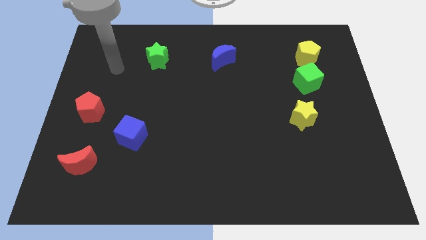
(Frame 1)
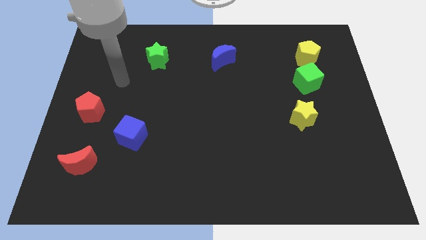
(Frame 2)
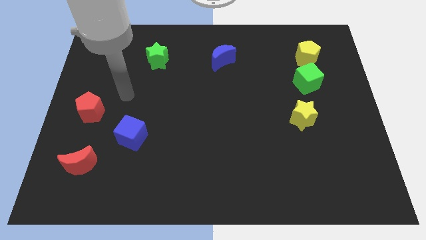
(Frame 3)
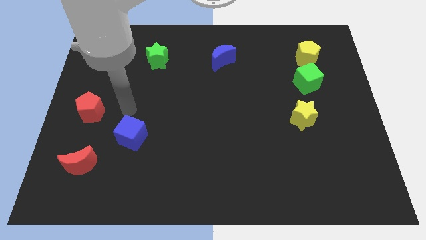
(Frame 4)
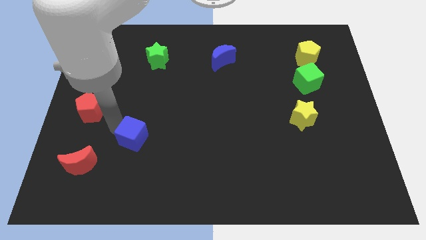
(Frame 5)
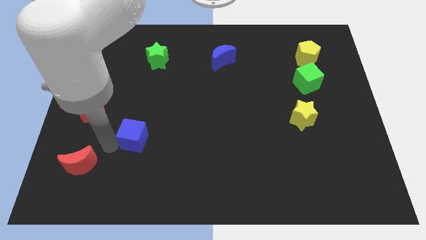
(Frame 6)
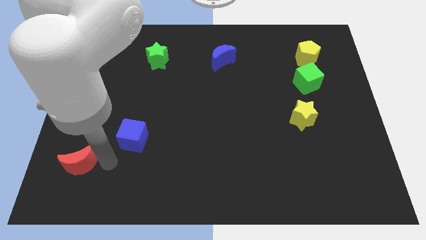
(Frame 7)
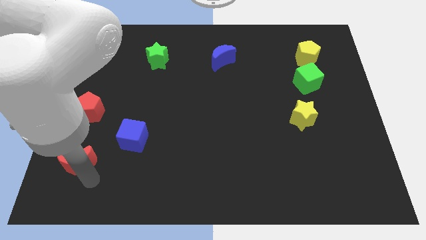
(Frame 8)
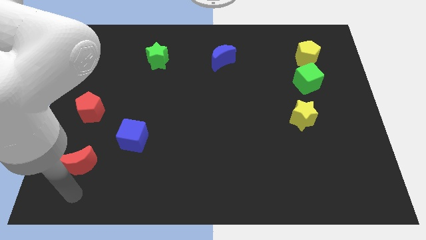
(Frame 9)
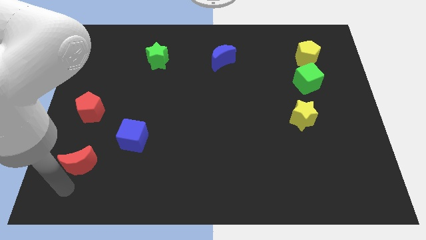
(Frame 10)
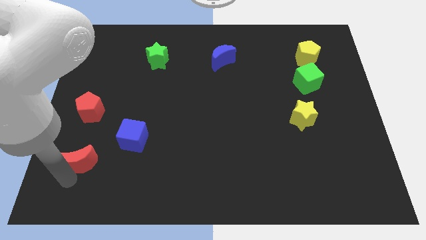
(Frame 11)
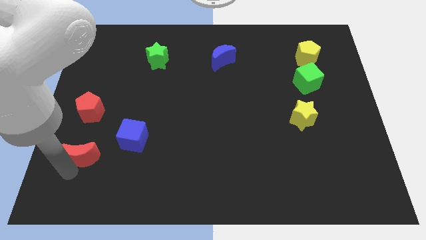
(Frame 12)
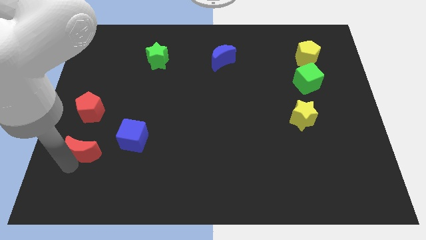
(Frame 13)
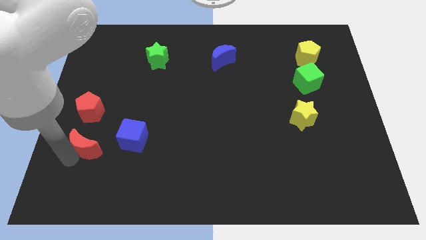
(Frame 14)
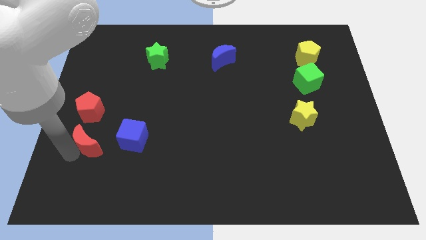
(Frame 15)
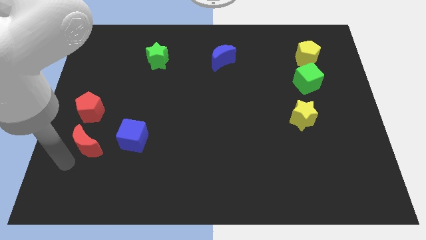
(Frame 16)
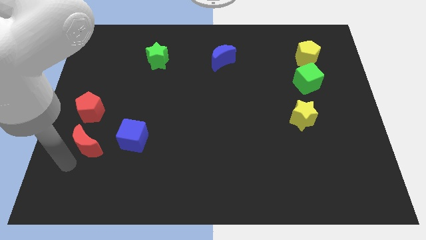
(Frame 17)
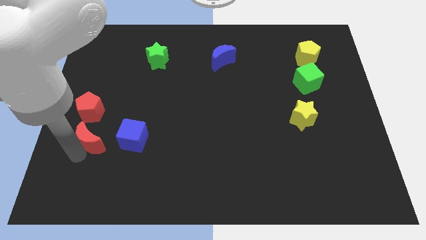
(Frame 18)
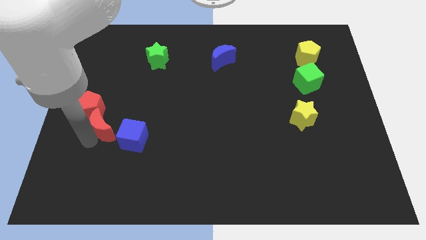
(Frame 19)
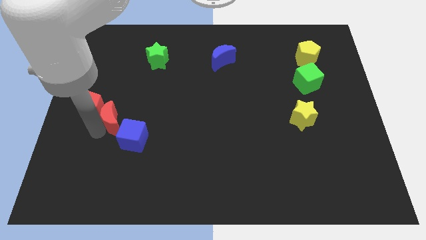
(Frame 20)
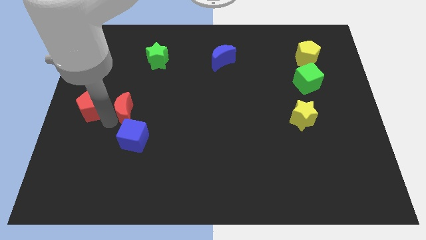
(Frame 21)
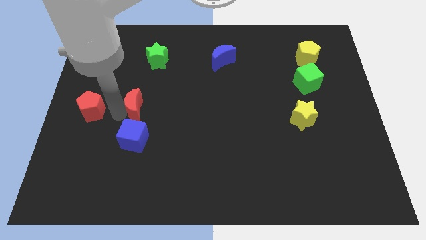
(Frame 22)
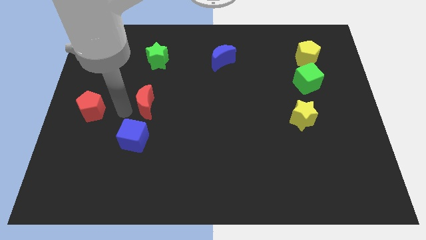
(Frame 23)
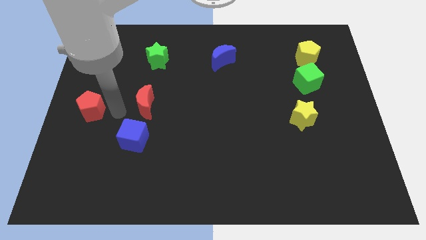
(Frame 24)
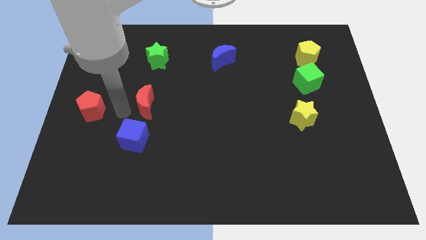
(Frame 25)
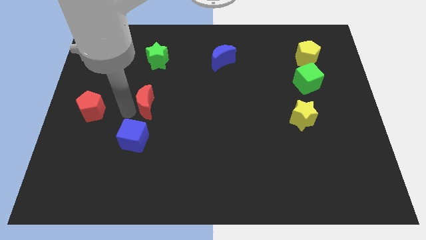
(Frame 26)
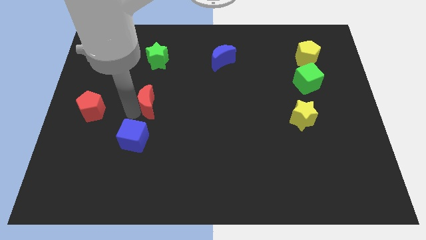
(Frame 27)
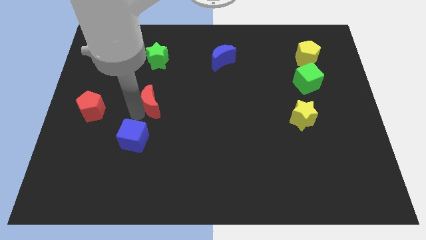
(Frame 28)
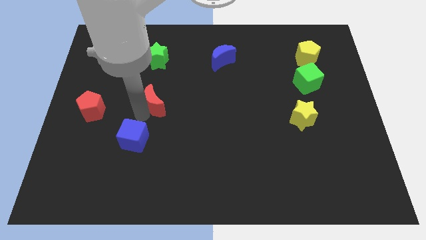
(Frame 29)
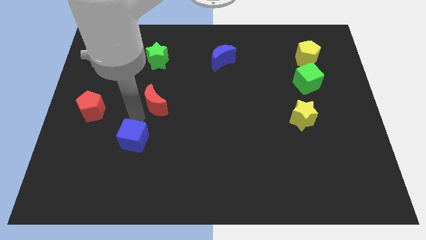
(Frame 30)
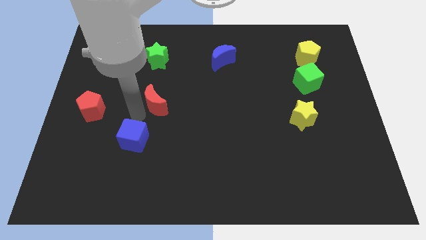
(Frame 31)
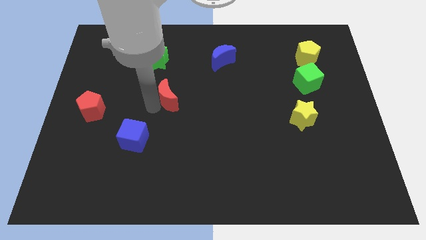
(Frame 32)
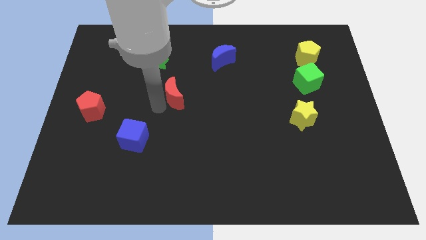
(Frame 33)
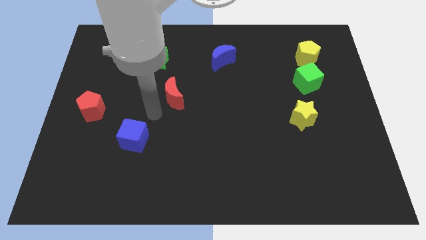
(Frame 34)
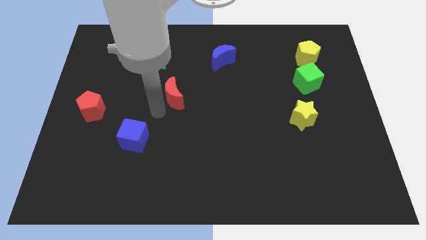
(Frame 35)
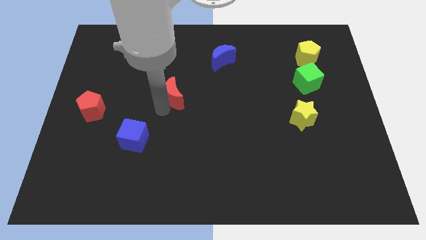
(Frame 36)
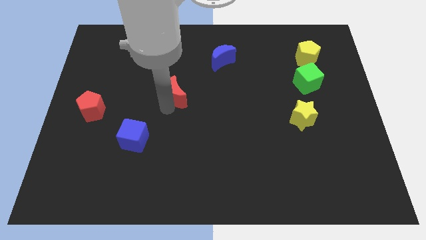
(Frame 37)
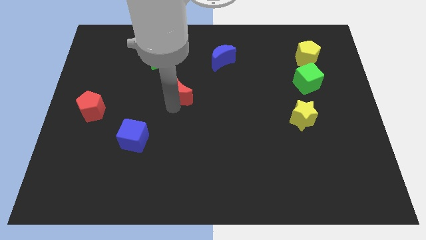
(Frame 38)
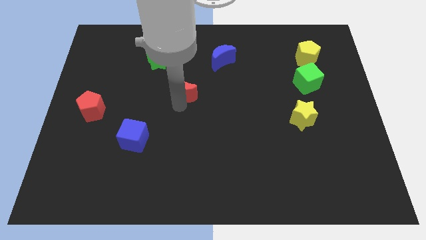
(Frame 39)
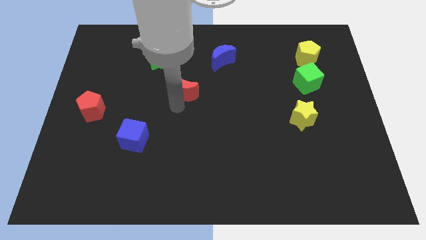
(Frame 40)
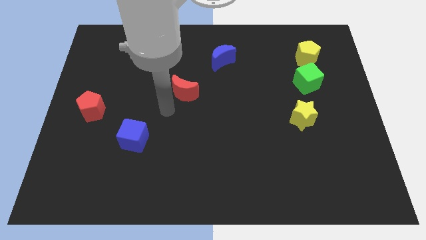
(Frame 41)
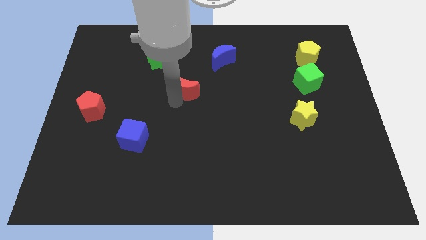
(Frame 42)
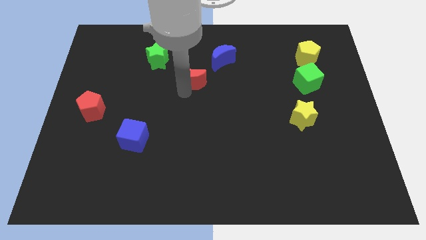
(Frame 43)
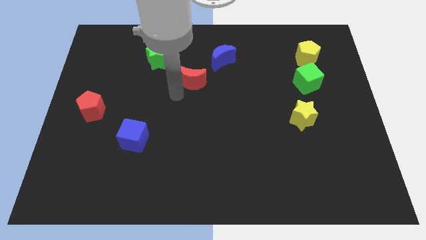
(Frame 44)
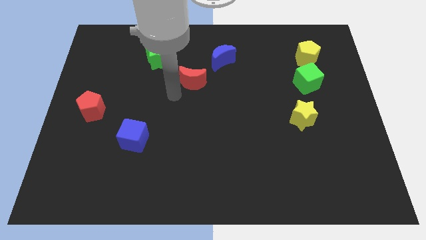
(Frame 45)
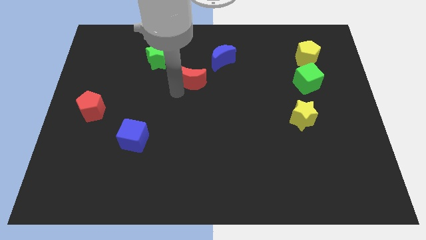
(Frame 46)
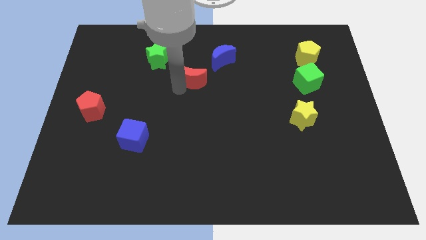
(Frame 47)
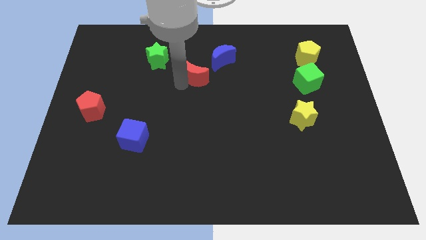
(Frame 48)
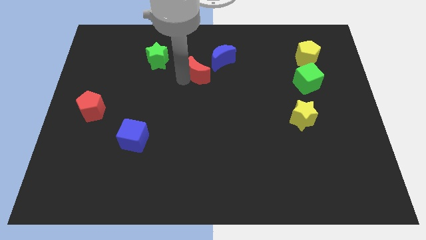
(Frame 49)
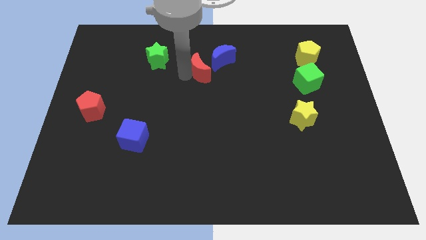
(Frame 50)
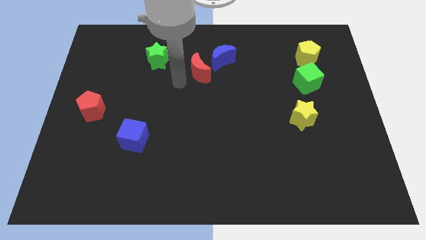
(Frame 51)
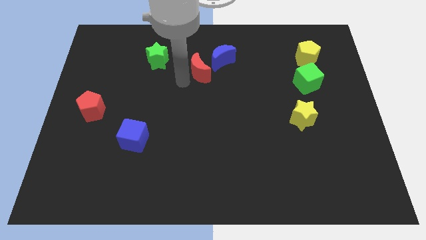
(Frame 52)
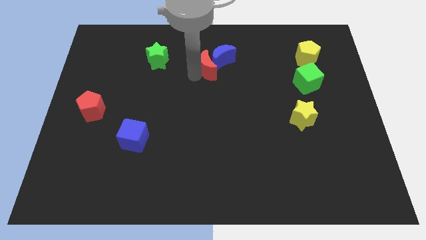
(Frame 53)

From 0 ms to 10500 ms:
put the red moon close to the blue moon

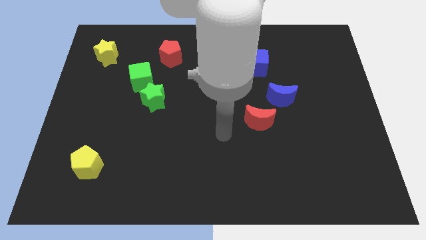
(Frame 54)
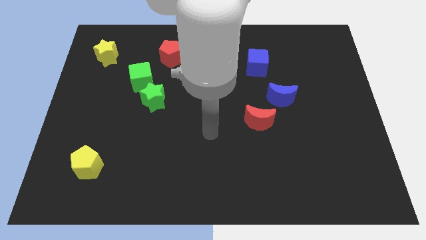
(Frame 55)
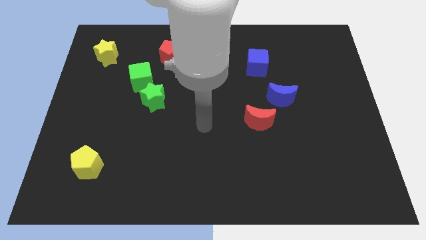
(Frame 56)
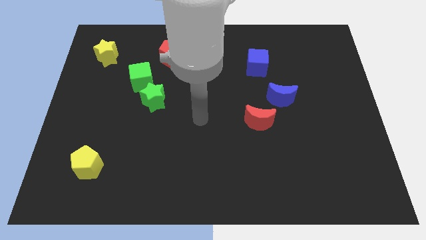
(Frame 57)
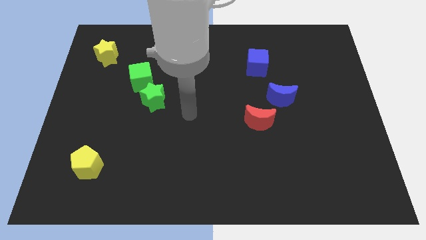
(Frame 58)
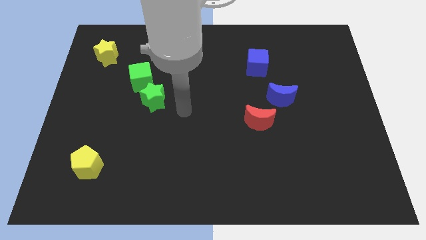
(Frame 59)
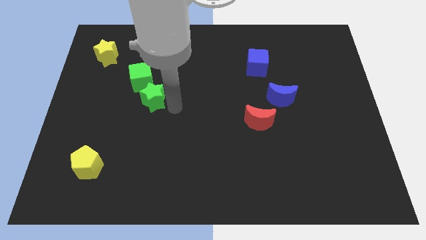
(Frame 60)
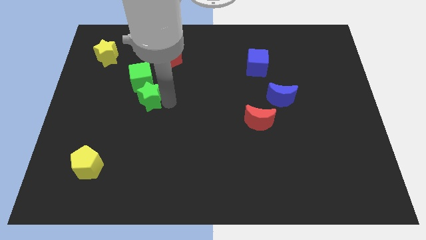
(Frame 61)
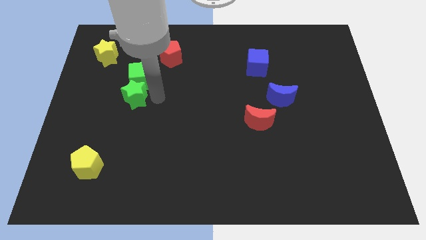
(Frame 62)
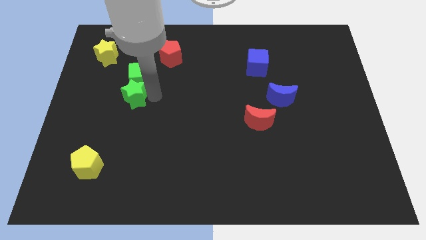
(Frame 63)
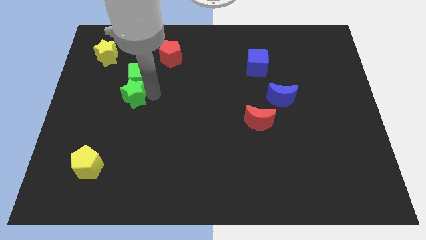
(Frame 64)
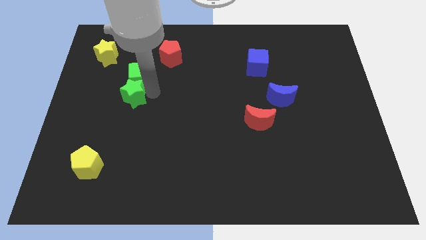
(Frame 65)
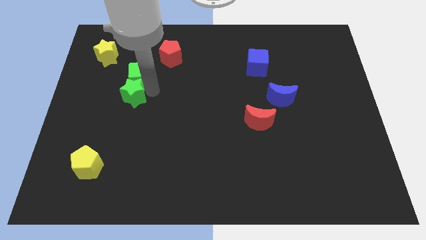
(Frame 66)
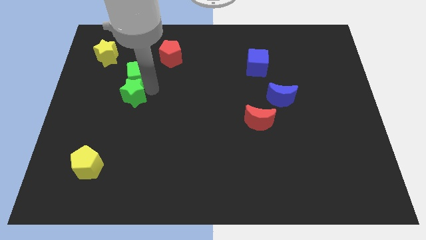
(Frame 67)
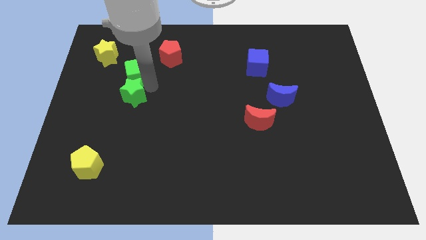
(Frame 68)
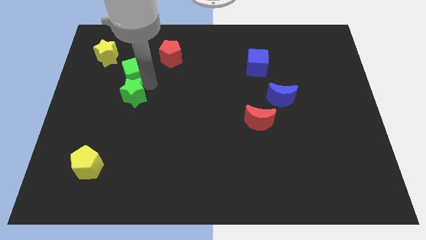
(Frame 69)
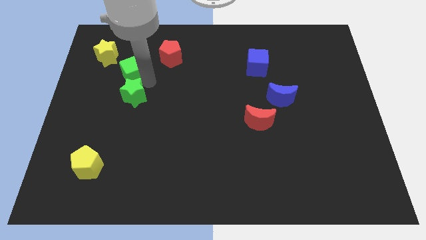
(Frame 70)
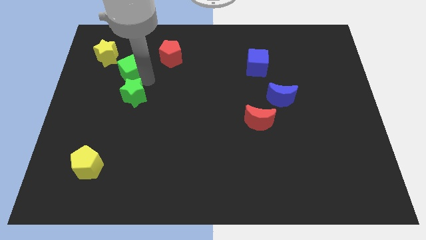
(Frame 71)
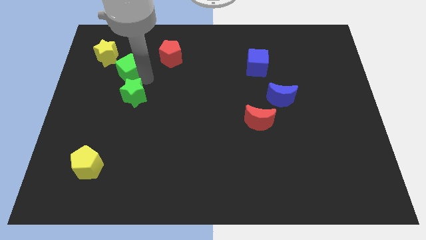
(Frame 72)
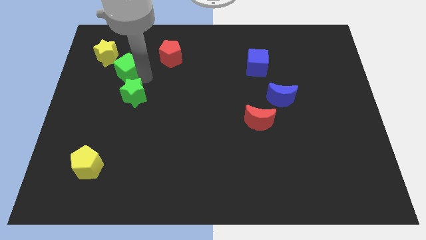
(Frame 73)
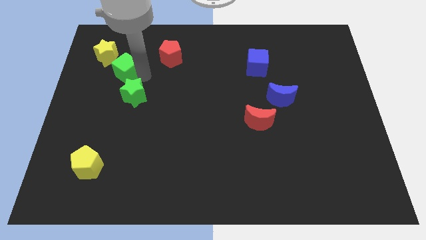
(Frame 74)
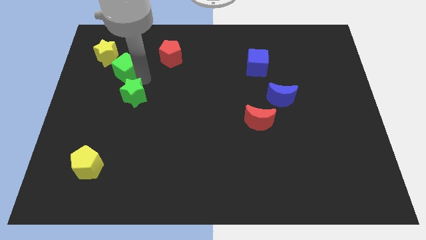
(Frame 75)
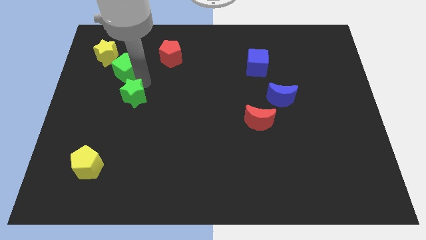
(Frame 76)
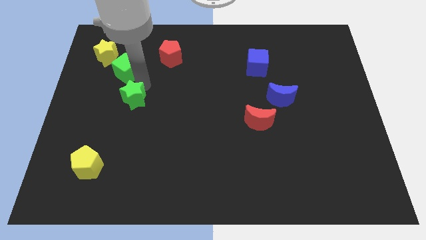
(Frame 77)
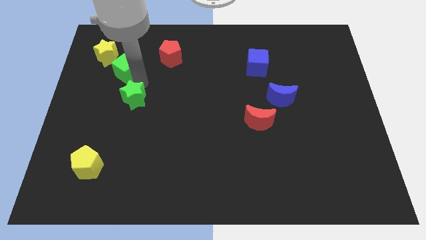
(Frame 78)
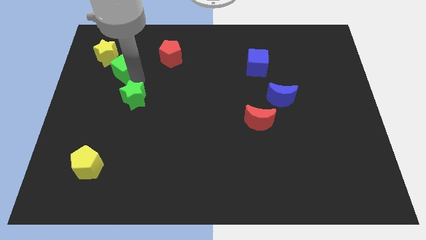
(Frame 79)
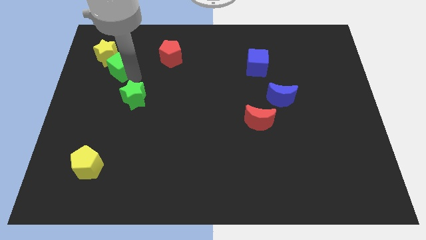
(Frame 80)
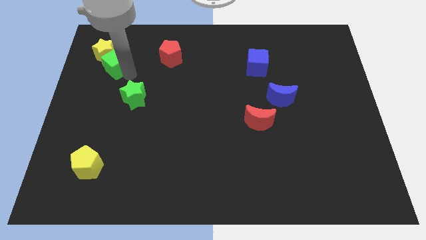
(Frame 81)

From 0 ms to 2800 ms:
push the green cube to the yellow star
